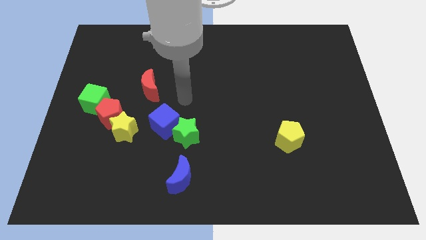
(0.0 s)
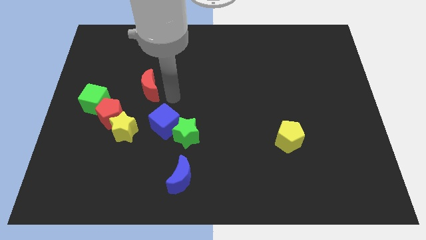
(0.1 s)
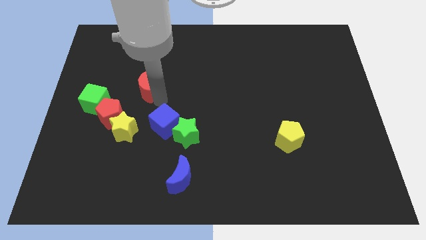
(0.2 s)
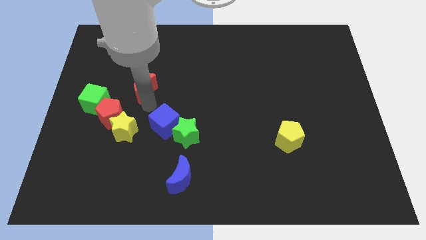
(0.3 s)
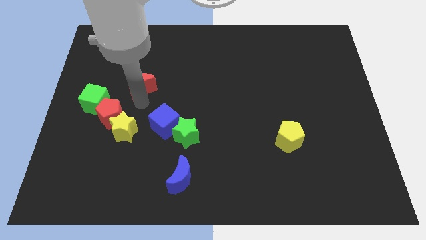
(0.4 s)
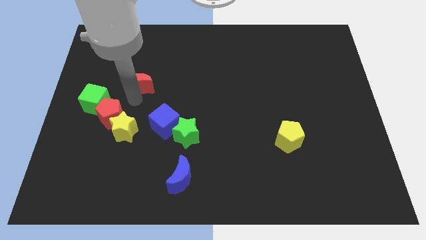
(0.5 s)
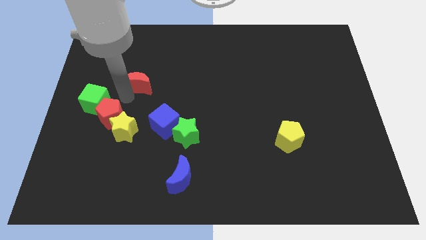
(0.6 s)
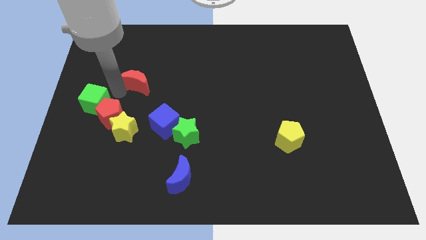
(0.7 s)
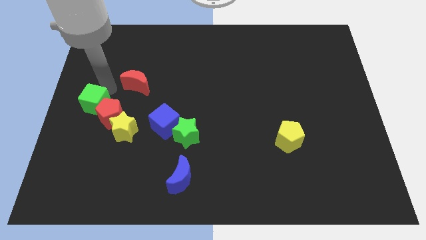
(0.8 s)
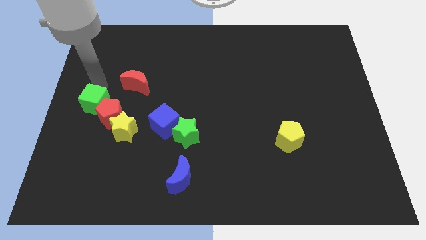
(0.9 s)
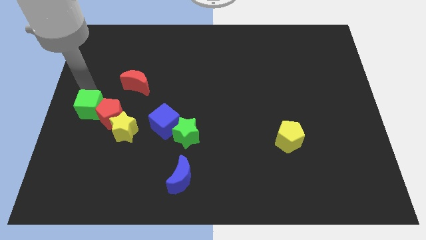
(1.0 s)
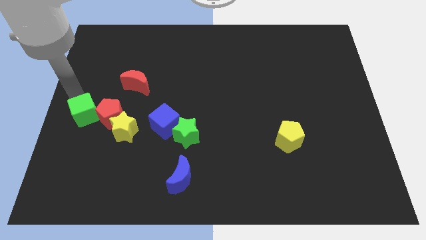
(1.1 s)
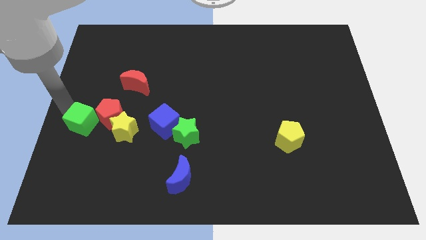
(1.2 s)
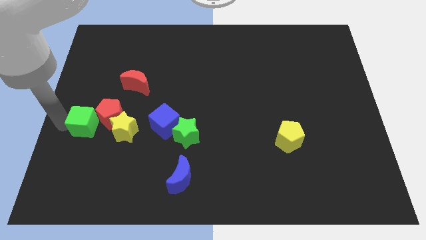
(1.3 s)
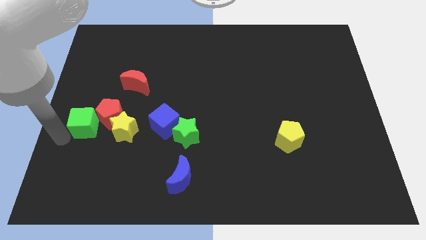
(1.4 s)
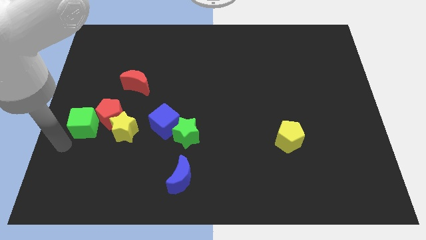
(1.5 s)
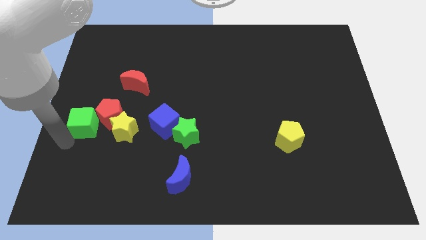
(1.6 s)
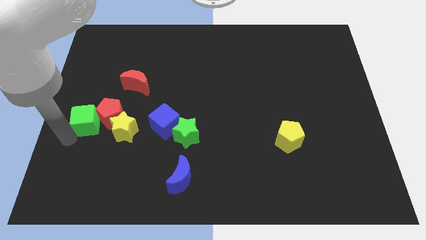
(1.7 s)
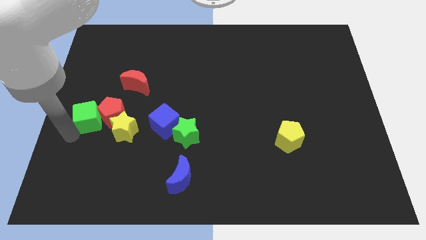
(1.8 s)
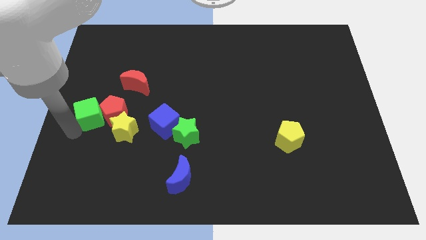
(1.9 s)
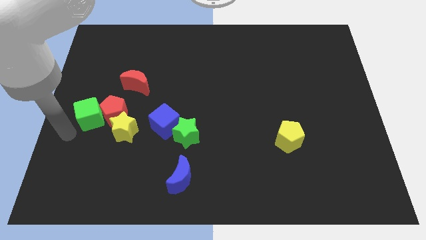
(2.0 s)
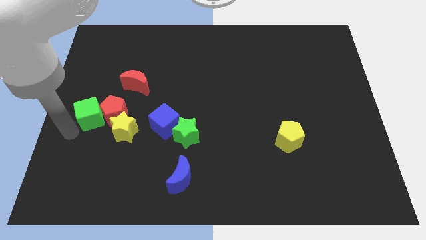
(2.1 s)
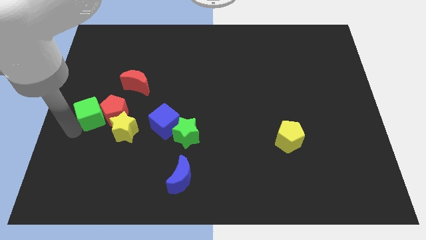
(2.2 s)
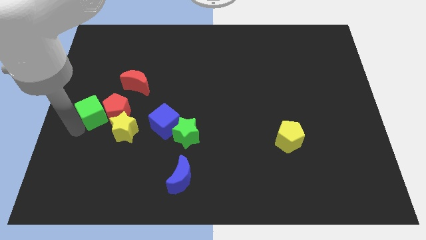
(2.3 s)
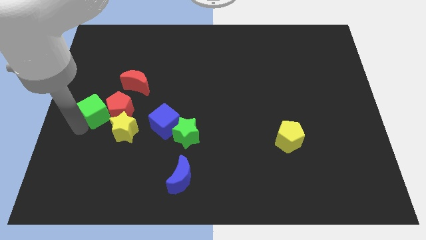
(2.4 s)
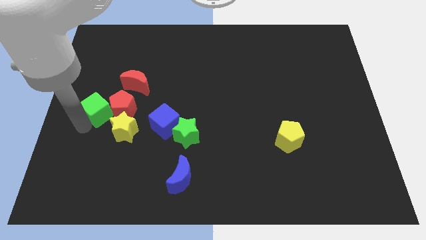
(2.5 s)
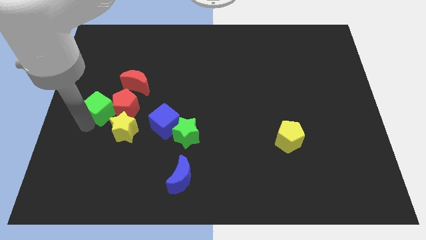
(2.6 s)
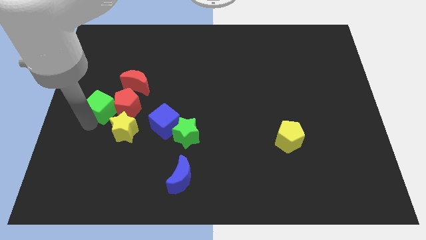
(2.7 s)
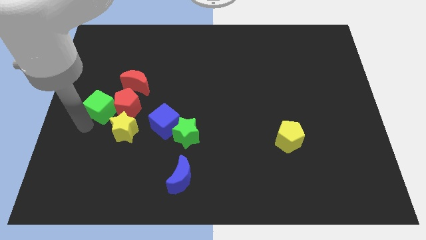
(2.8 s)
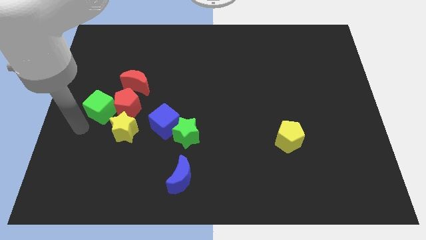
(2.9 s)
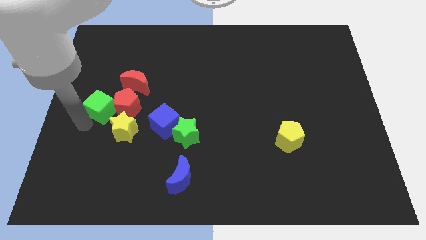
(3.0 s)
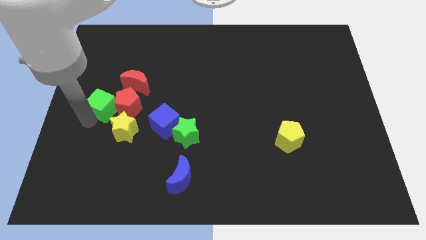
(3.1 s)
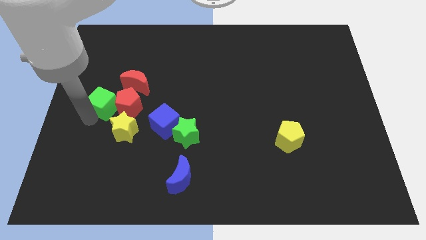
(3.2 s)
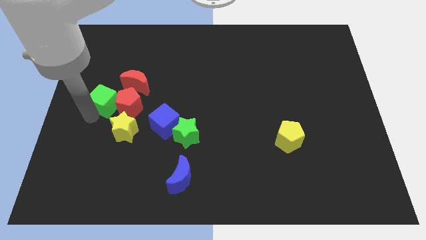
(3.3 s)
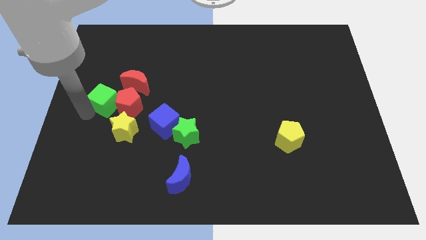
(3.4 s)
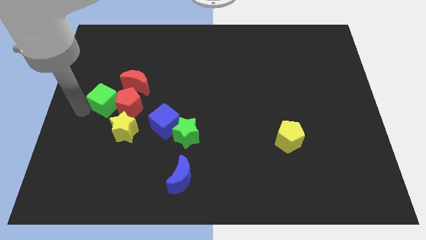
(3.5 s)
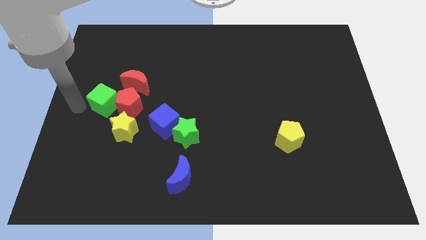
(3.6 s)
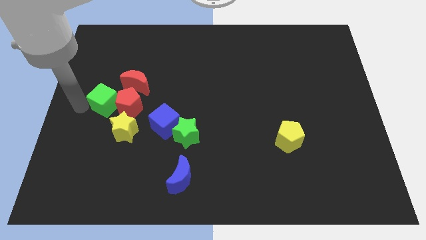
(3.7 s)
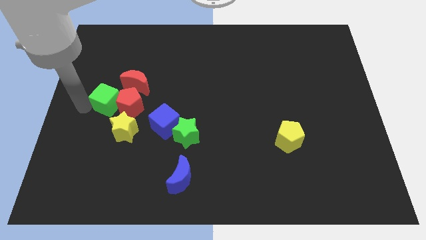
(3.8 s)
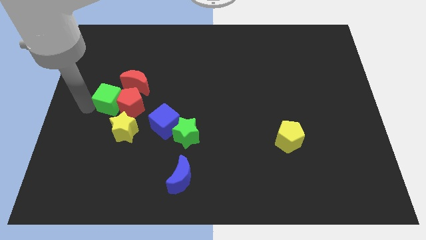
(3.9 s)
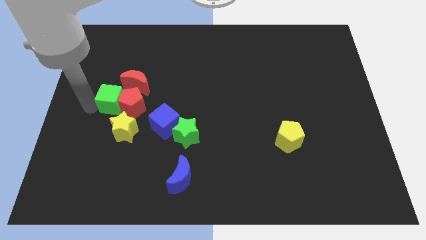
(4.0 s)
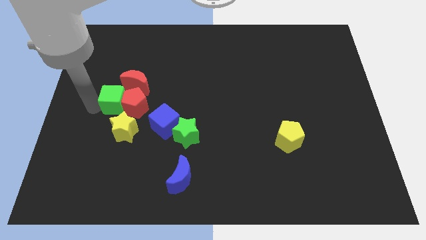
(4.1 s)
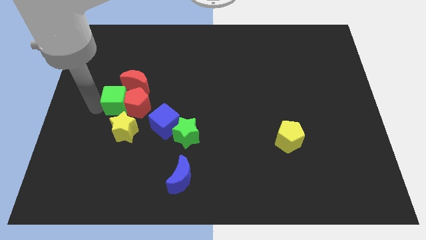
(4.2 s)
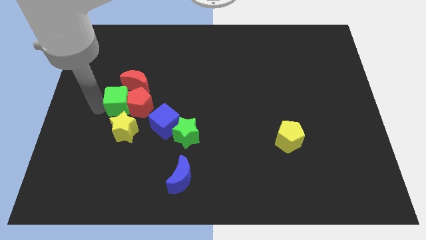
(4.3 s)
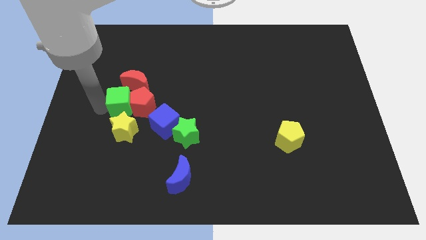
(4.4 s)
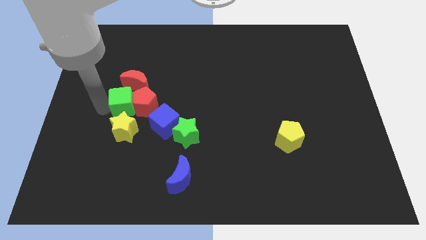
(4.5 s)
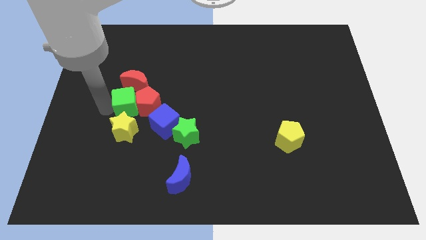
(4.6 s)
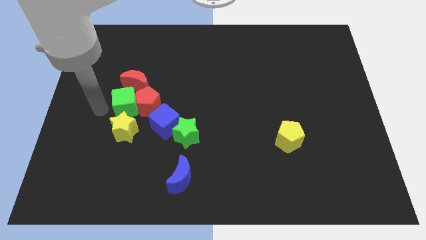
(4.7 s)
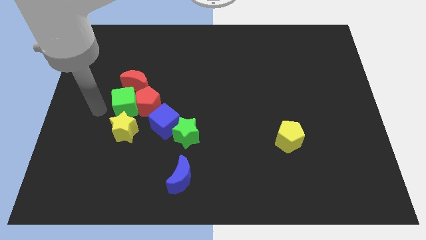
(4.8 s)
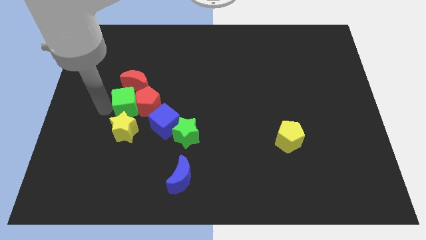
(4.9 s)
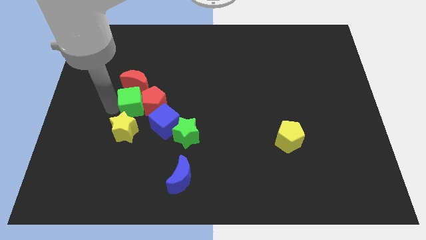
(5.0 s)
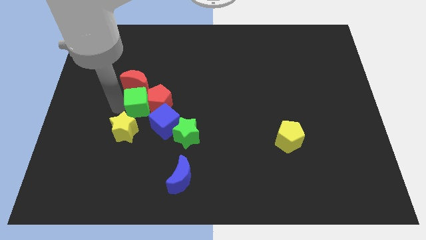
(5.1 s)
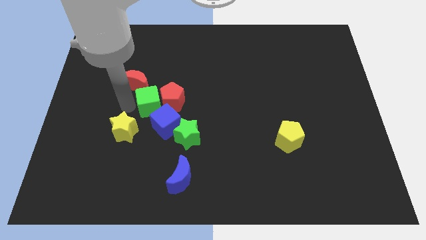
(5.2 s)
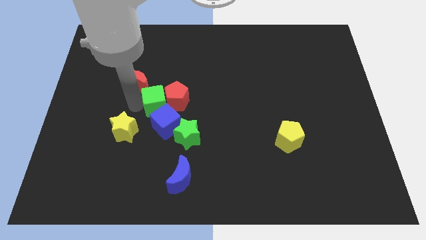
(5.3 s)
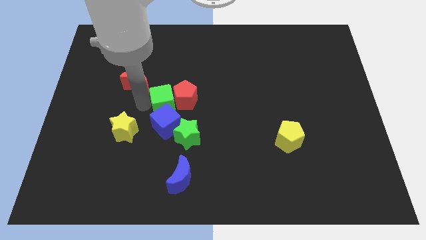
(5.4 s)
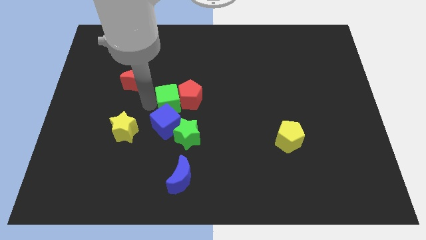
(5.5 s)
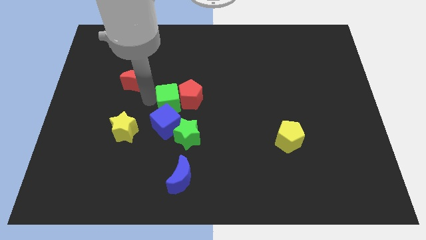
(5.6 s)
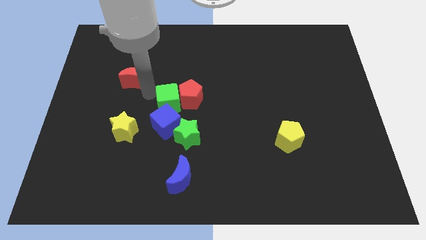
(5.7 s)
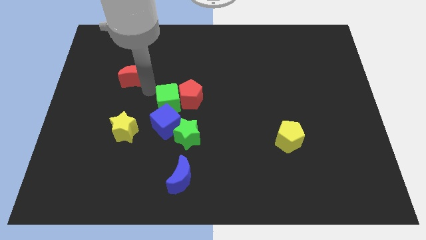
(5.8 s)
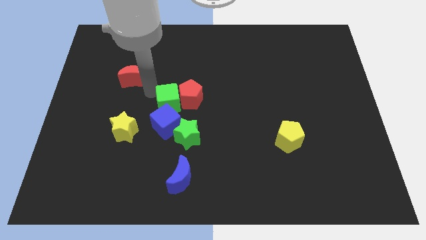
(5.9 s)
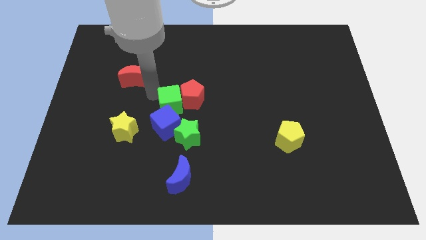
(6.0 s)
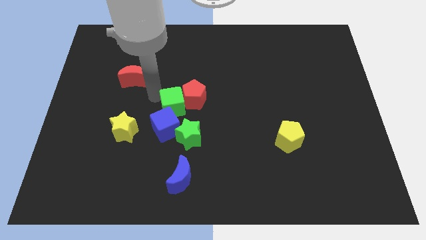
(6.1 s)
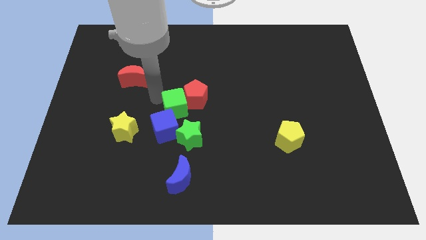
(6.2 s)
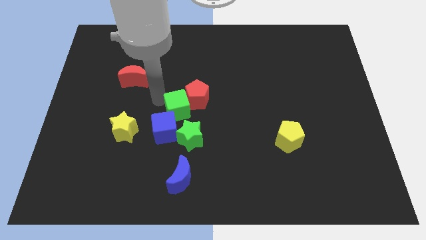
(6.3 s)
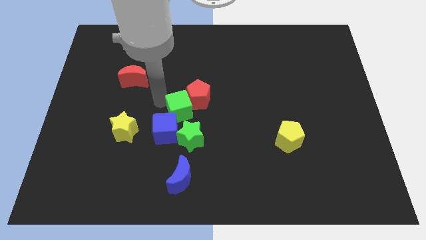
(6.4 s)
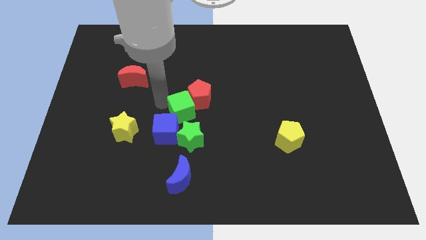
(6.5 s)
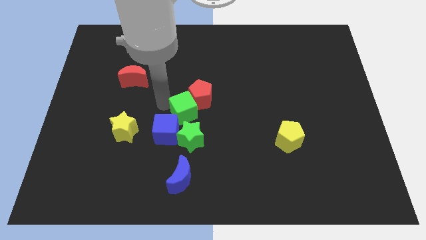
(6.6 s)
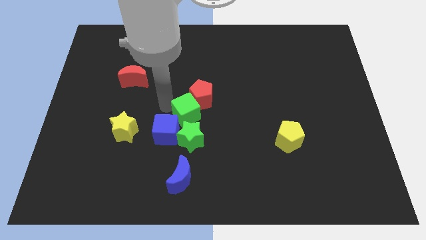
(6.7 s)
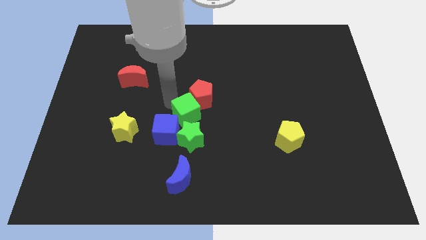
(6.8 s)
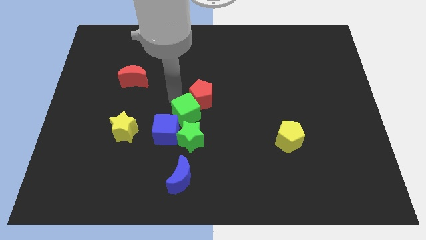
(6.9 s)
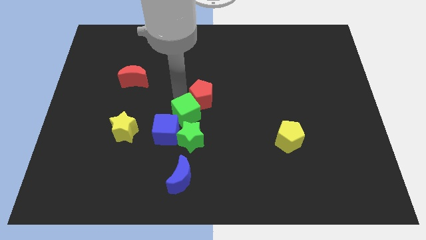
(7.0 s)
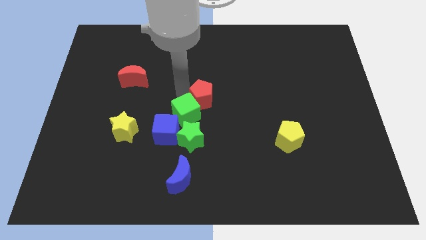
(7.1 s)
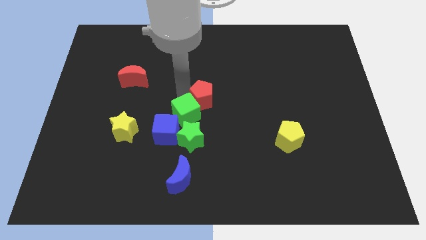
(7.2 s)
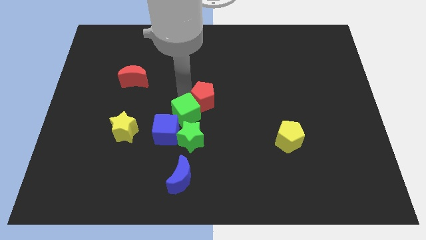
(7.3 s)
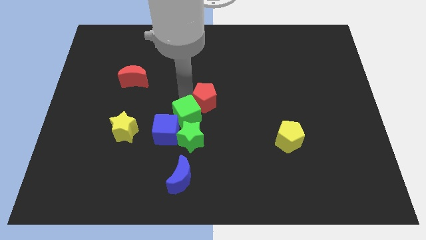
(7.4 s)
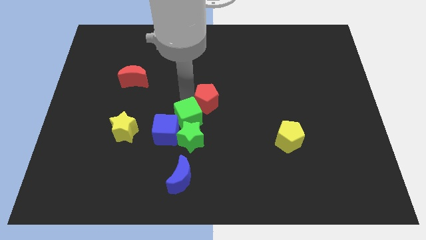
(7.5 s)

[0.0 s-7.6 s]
push the green cube close to the green star

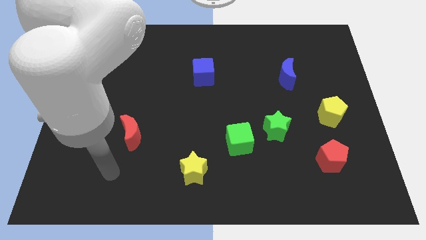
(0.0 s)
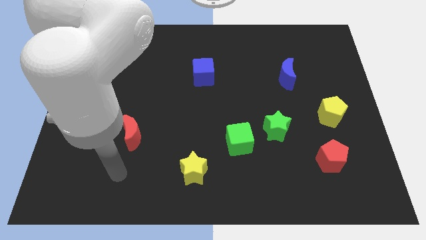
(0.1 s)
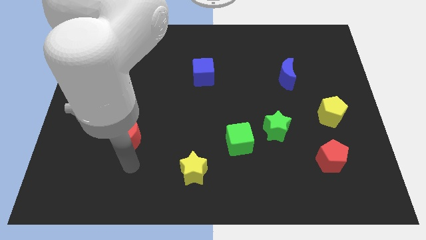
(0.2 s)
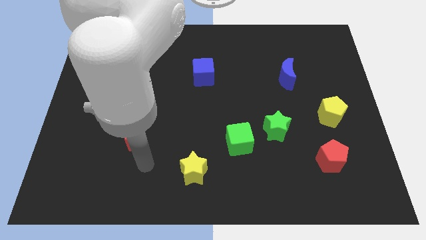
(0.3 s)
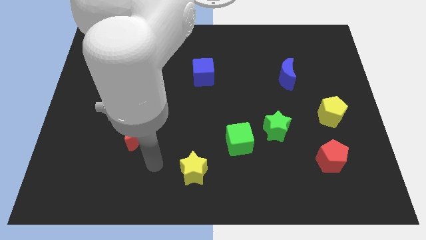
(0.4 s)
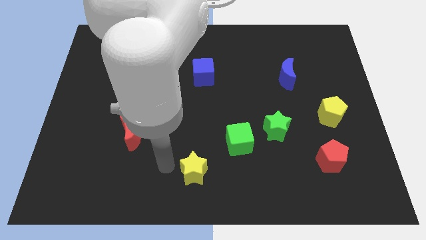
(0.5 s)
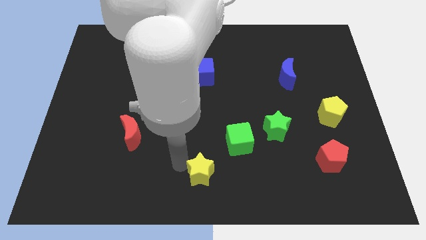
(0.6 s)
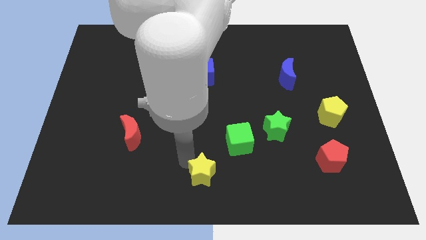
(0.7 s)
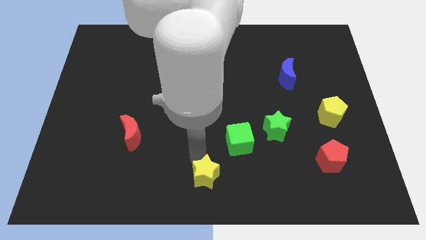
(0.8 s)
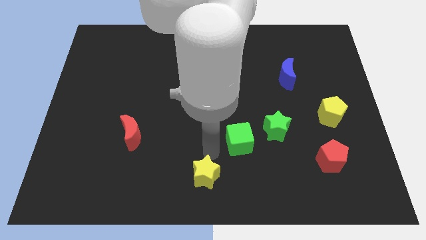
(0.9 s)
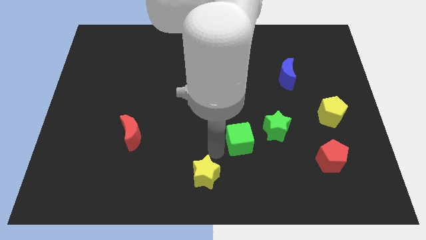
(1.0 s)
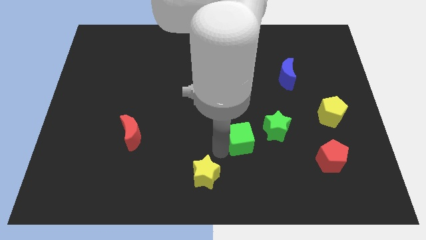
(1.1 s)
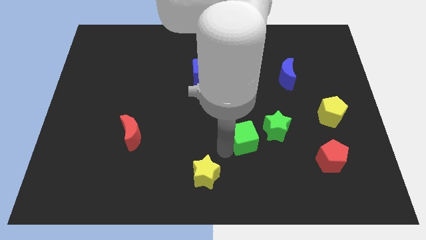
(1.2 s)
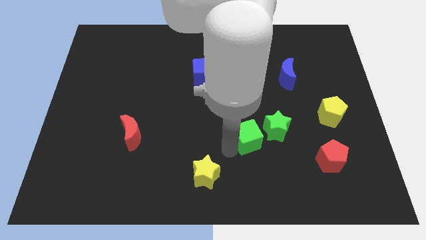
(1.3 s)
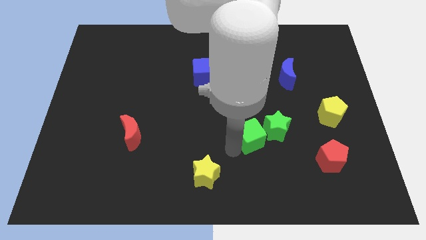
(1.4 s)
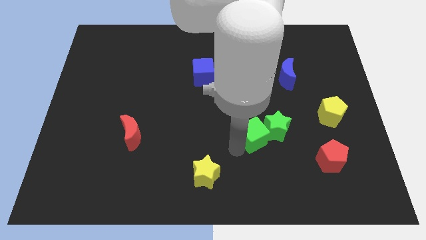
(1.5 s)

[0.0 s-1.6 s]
move the green cube towards the green star
